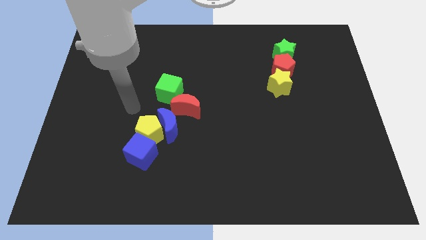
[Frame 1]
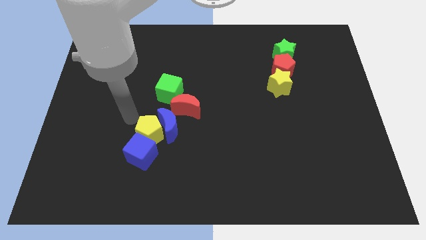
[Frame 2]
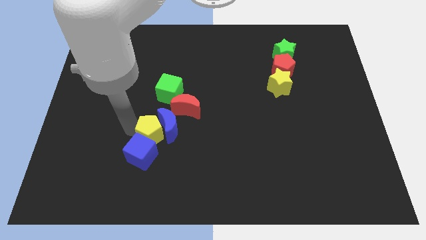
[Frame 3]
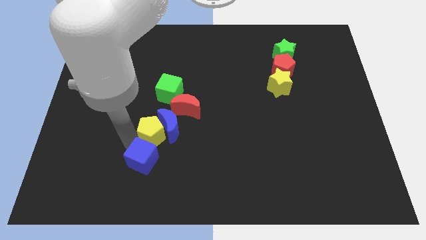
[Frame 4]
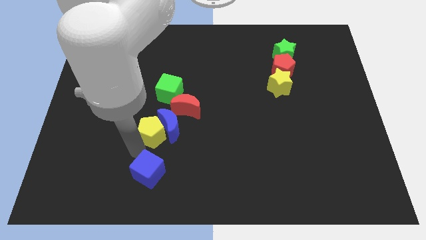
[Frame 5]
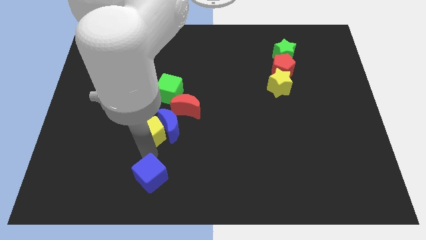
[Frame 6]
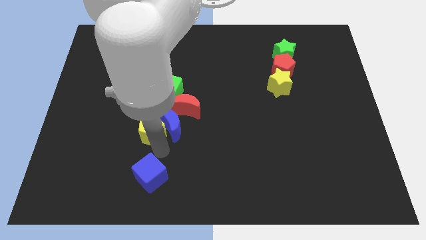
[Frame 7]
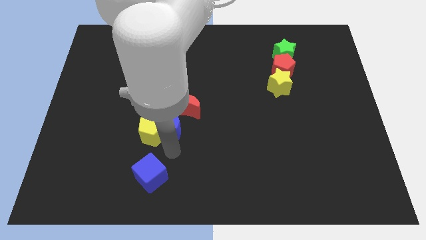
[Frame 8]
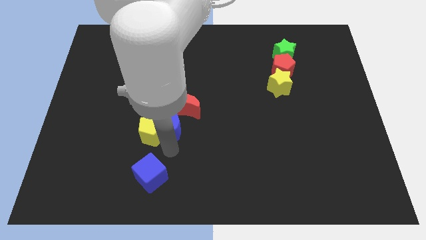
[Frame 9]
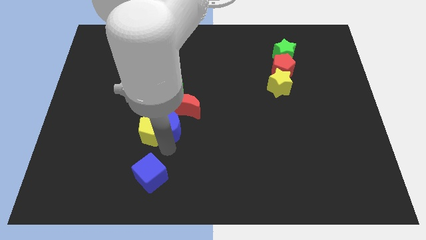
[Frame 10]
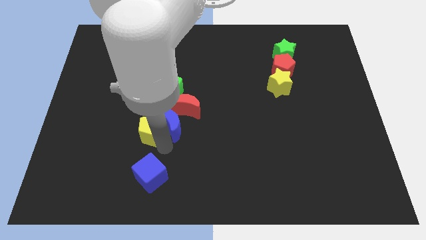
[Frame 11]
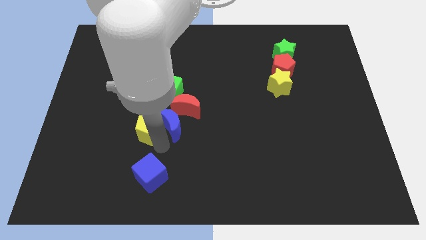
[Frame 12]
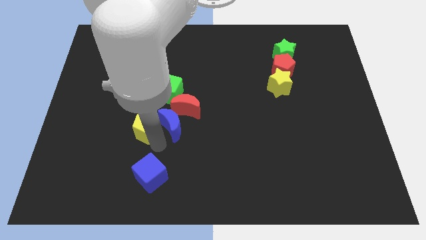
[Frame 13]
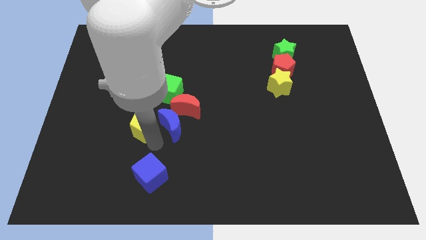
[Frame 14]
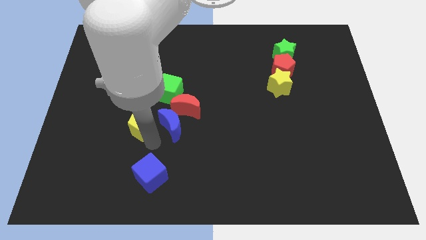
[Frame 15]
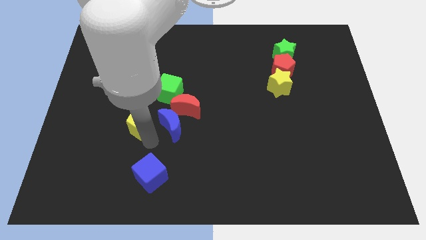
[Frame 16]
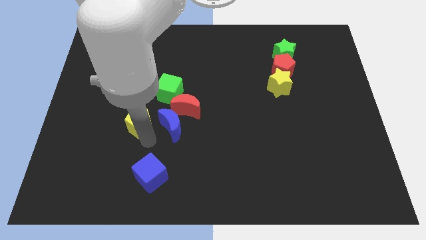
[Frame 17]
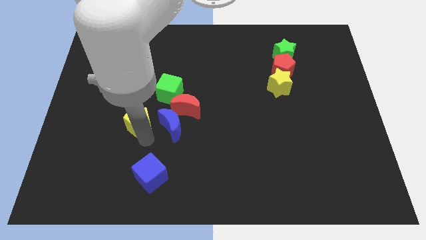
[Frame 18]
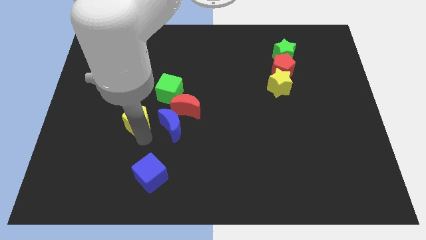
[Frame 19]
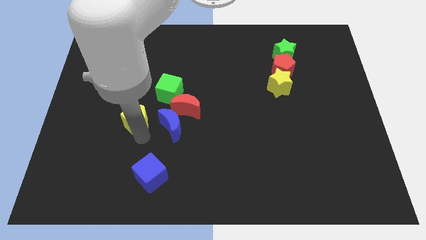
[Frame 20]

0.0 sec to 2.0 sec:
move the yellow pentagon away from the blue moon and blue cube

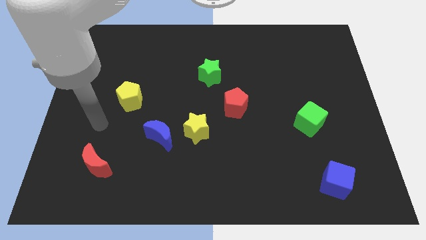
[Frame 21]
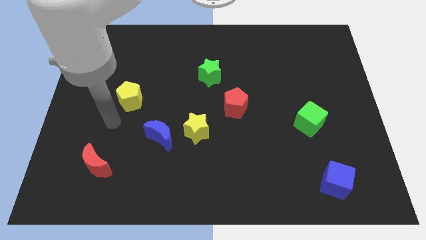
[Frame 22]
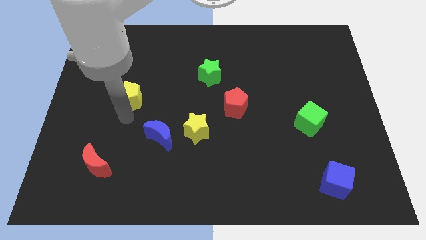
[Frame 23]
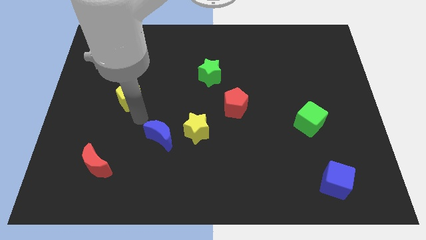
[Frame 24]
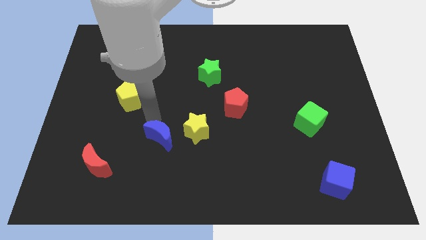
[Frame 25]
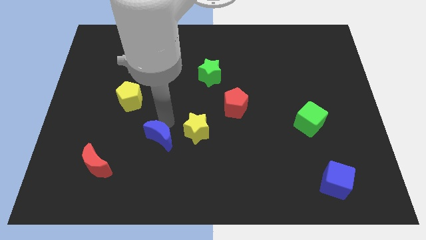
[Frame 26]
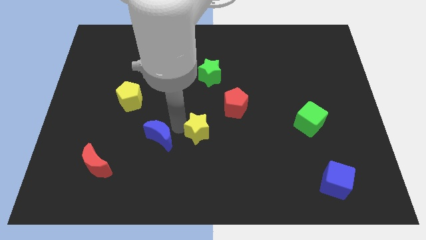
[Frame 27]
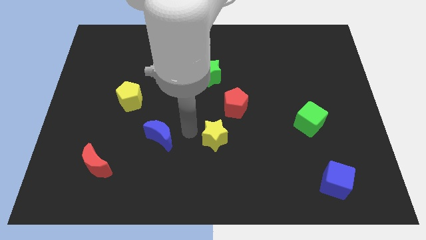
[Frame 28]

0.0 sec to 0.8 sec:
pull the blue moon apart from the yellow star

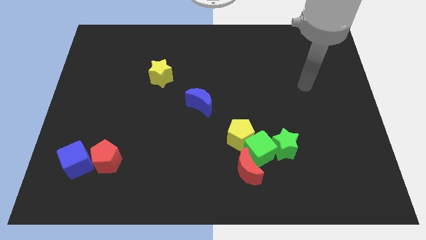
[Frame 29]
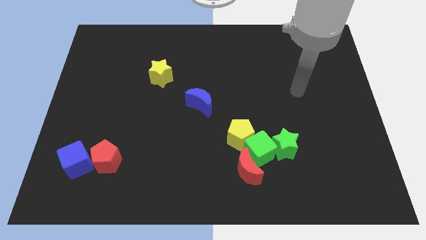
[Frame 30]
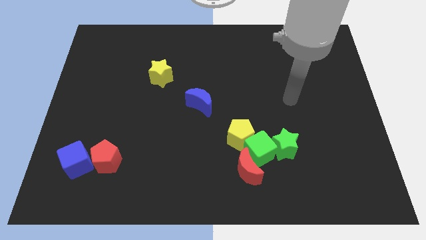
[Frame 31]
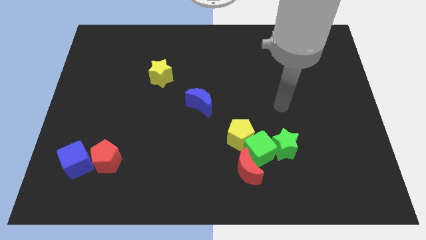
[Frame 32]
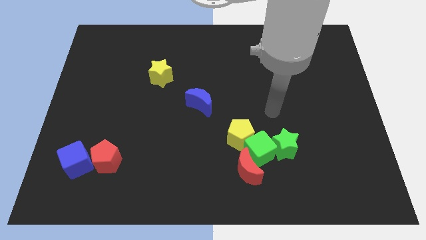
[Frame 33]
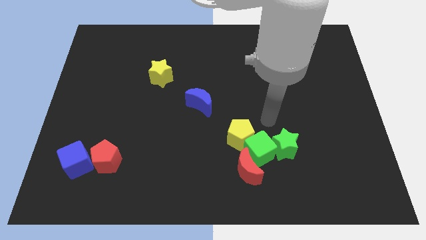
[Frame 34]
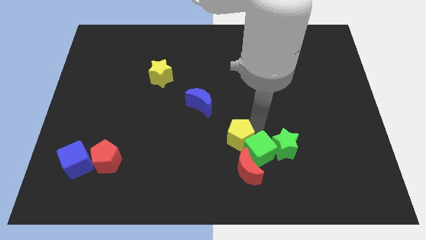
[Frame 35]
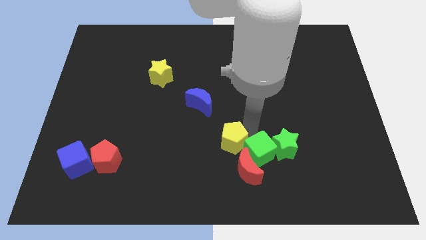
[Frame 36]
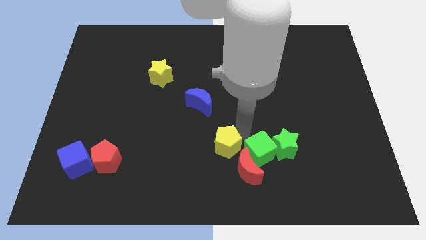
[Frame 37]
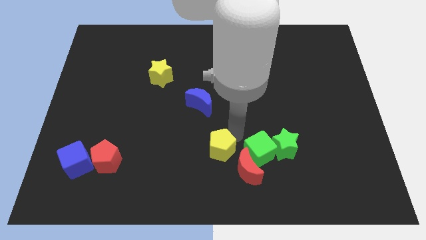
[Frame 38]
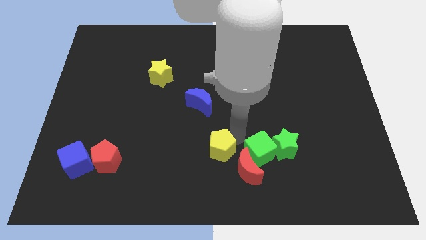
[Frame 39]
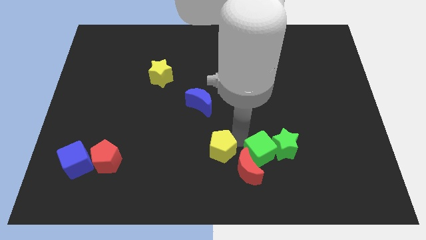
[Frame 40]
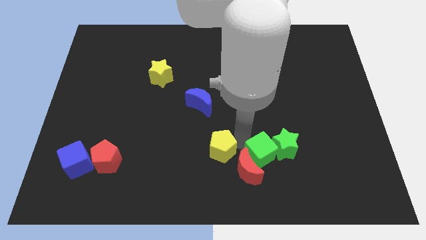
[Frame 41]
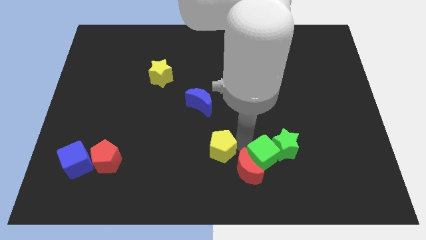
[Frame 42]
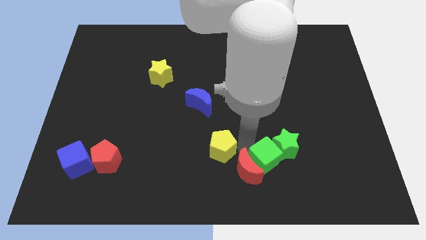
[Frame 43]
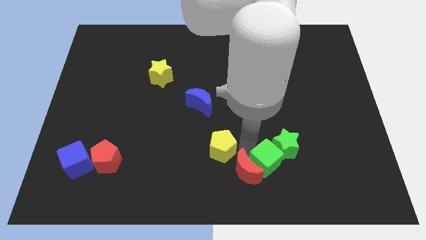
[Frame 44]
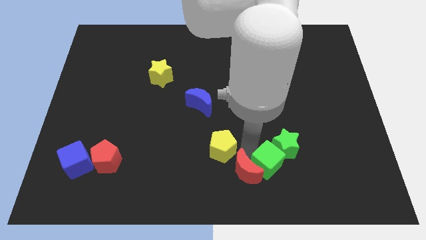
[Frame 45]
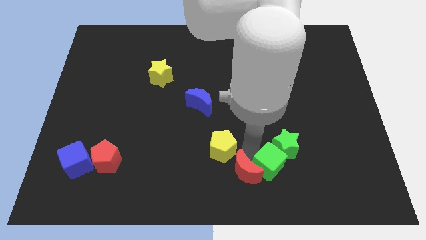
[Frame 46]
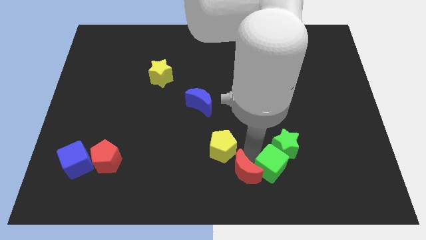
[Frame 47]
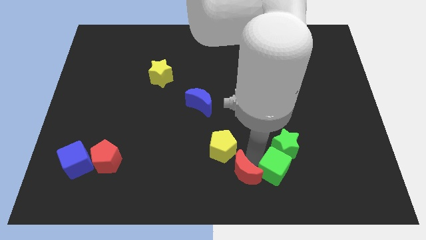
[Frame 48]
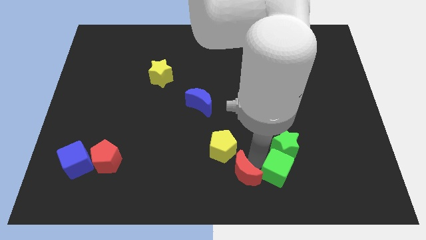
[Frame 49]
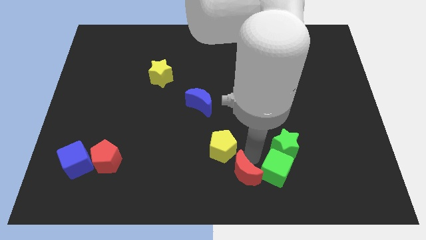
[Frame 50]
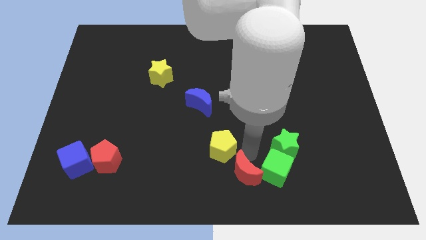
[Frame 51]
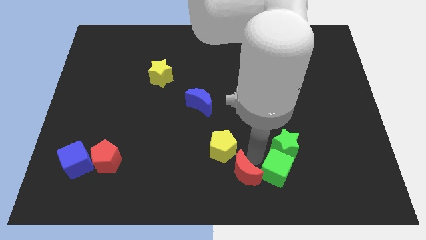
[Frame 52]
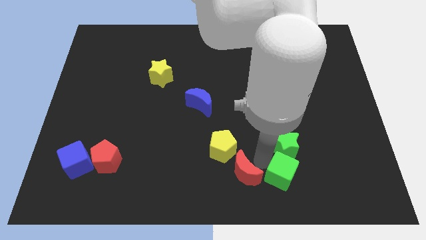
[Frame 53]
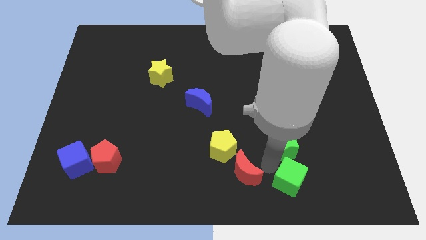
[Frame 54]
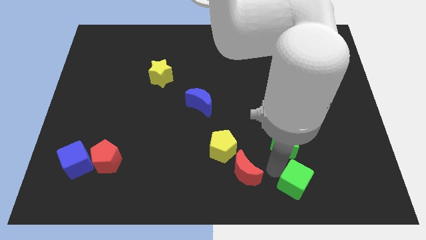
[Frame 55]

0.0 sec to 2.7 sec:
move the green cube away from the group

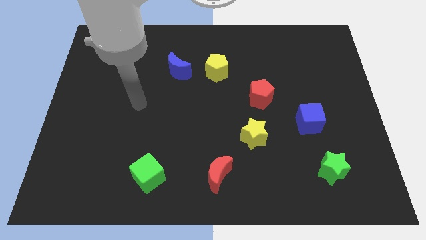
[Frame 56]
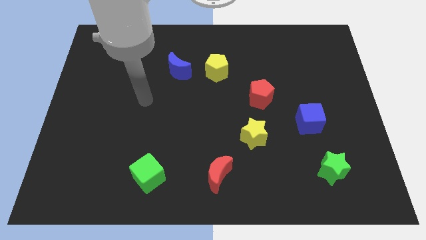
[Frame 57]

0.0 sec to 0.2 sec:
pull the blue moon apart from the yellow pentagon

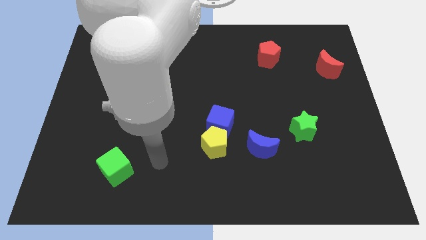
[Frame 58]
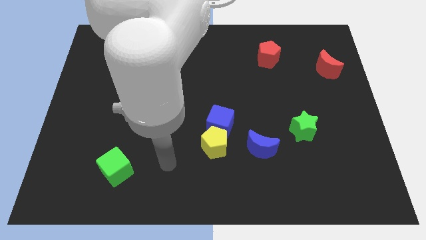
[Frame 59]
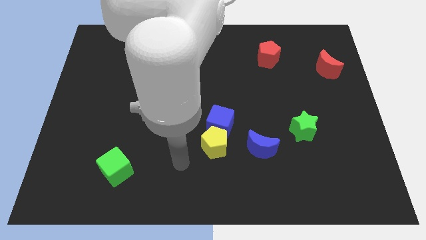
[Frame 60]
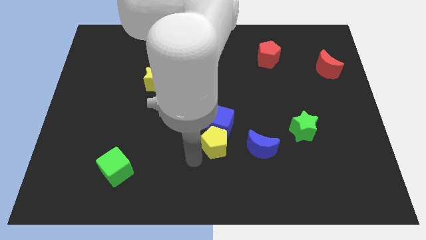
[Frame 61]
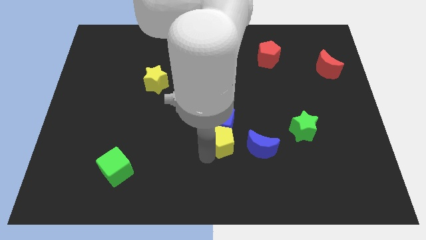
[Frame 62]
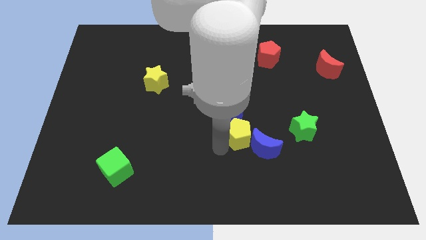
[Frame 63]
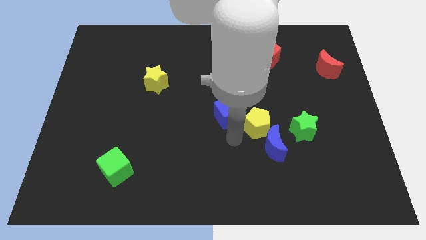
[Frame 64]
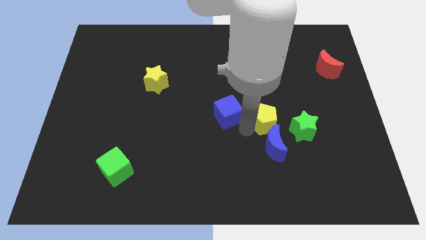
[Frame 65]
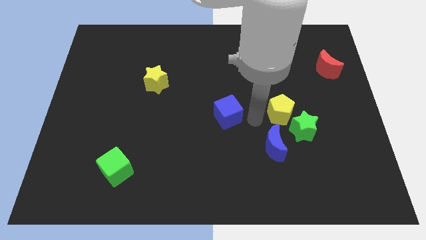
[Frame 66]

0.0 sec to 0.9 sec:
move the blue cube away from the yellow pentagon

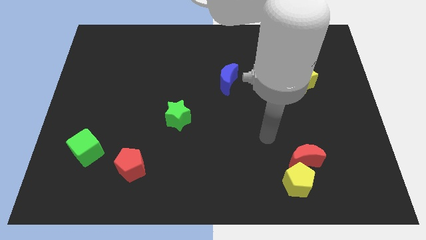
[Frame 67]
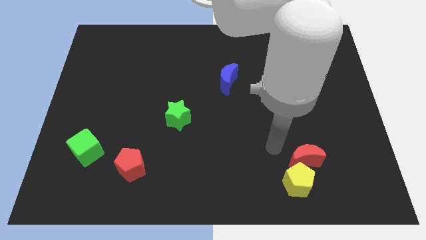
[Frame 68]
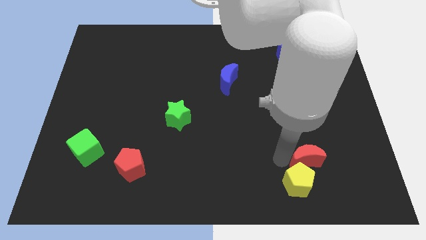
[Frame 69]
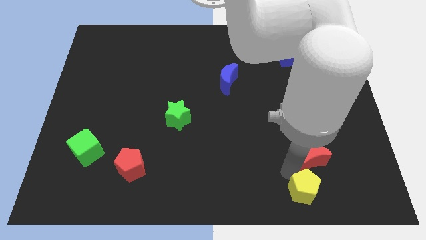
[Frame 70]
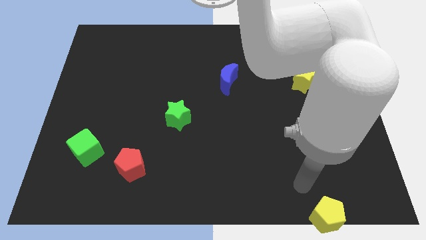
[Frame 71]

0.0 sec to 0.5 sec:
separate the red moon from the yellow pentagon

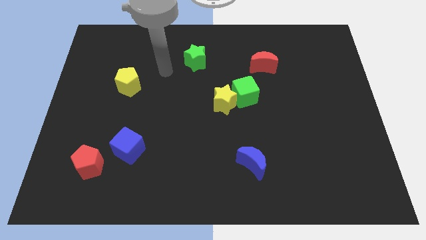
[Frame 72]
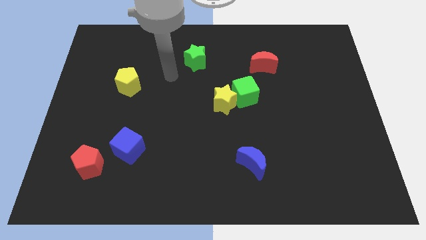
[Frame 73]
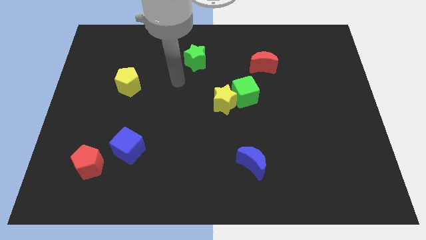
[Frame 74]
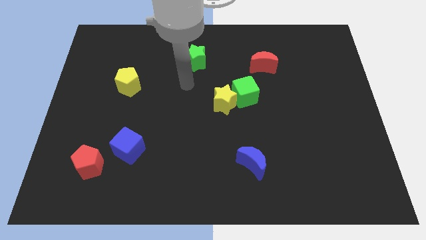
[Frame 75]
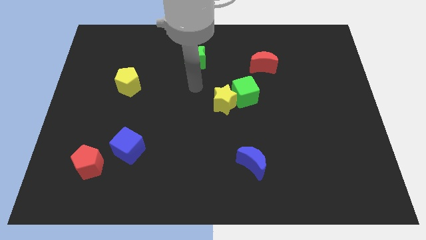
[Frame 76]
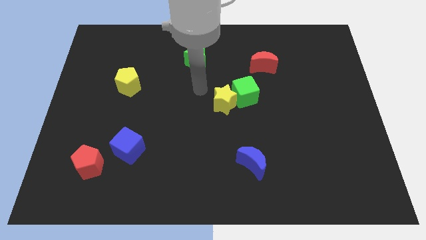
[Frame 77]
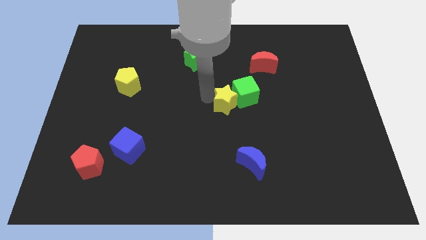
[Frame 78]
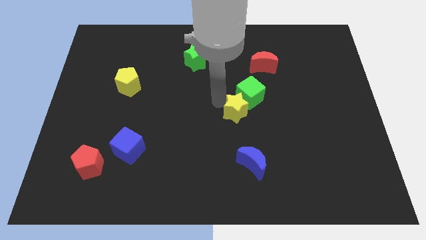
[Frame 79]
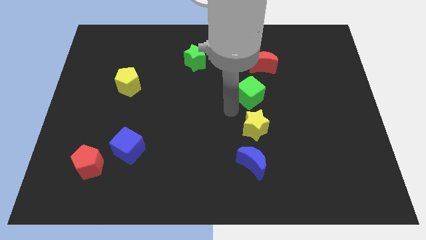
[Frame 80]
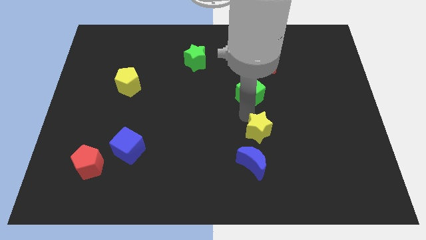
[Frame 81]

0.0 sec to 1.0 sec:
move the green cube away from the yellow star

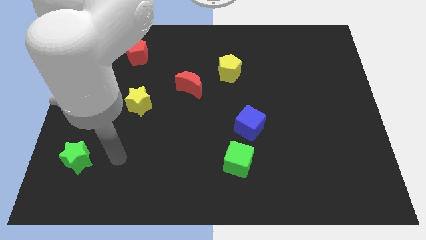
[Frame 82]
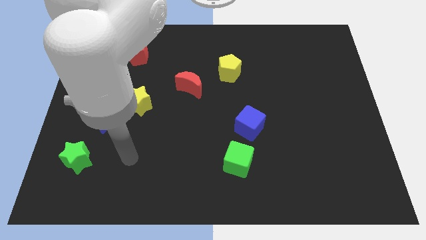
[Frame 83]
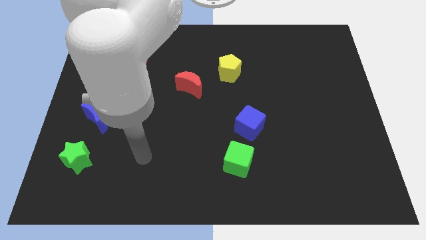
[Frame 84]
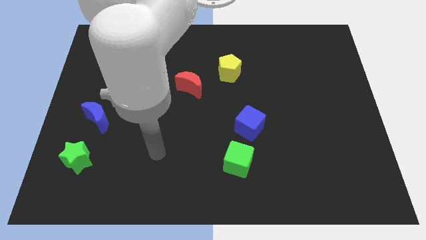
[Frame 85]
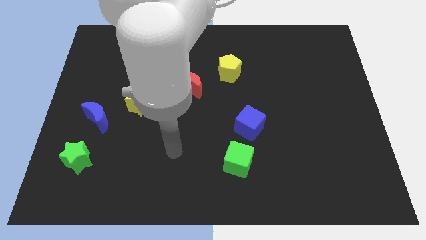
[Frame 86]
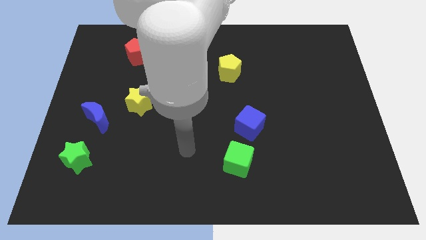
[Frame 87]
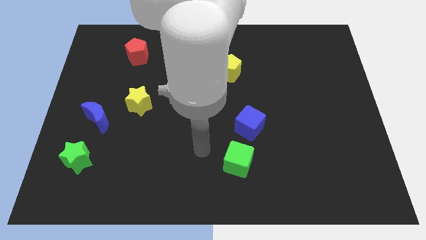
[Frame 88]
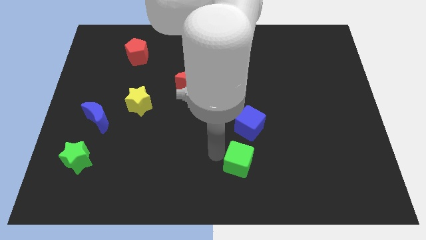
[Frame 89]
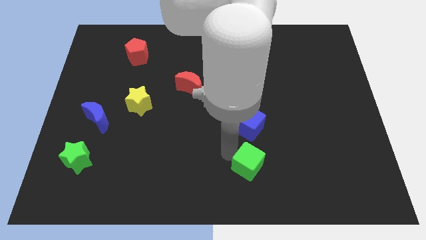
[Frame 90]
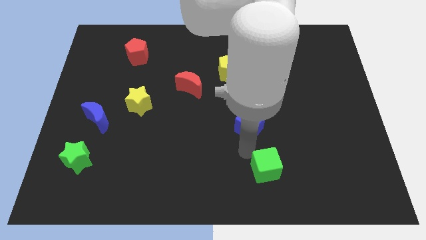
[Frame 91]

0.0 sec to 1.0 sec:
separate the blue cube from the green cube

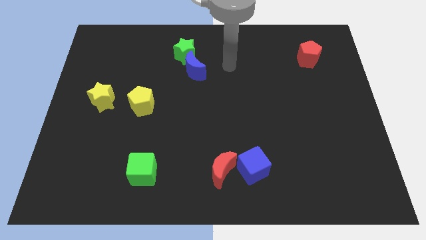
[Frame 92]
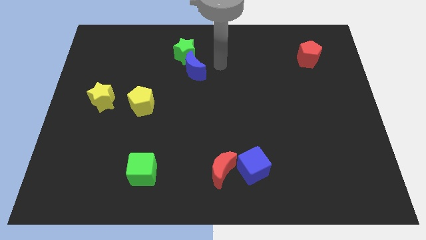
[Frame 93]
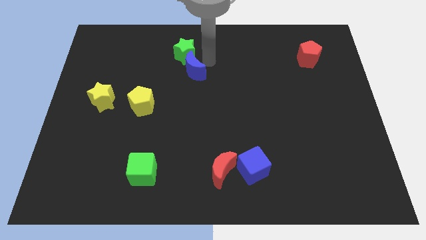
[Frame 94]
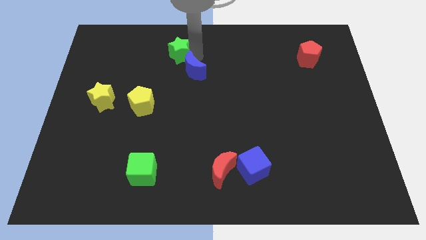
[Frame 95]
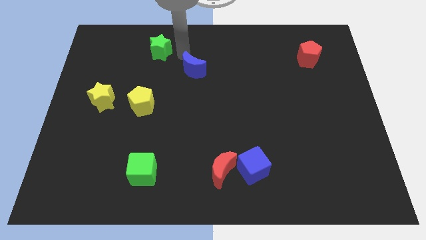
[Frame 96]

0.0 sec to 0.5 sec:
separate the blue moon from the green star
